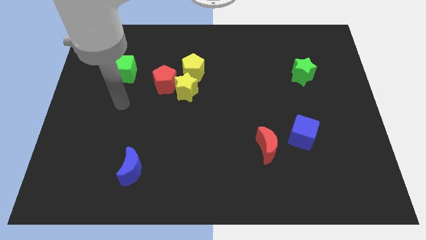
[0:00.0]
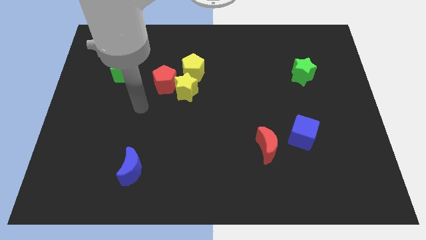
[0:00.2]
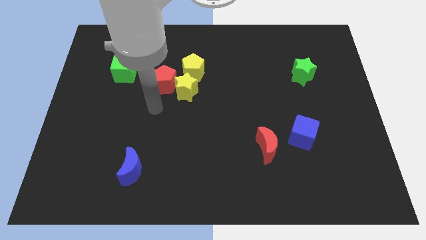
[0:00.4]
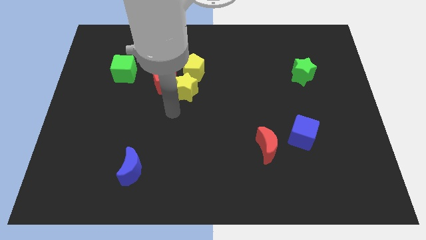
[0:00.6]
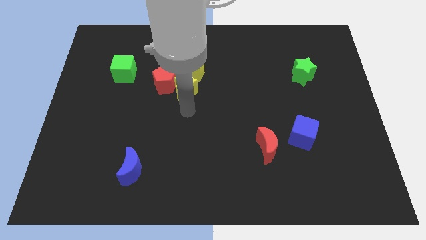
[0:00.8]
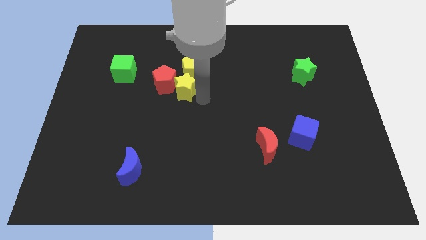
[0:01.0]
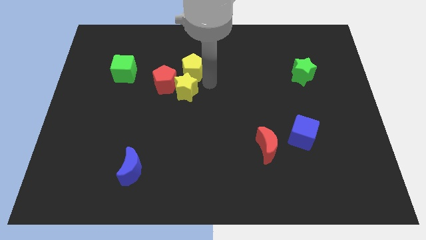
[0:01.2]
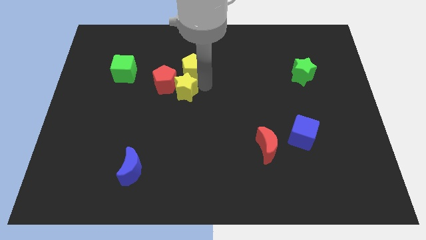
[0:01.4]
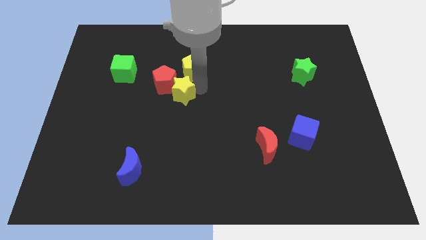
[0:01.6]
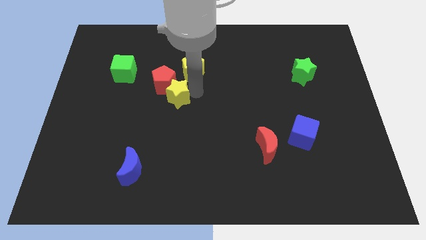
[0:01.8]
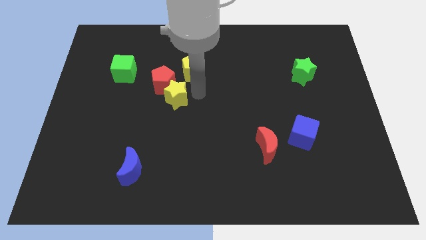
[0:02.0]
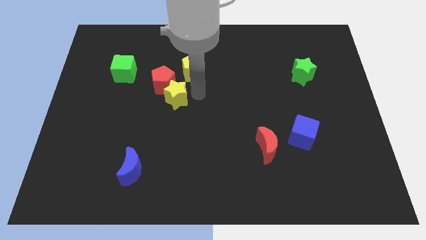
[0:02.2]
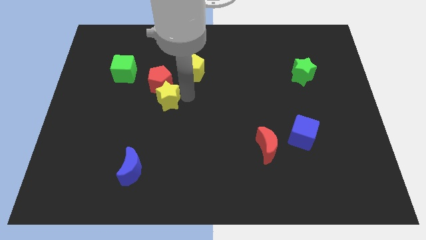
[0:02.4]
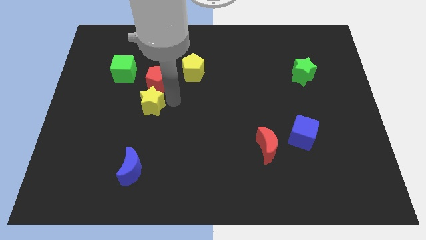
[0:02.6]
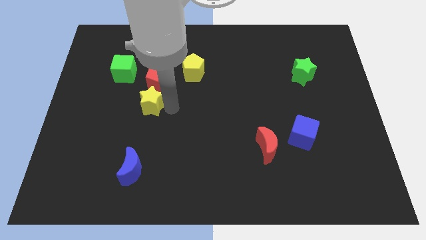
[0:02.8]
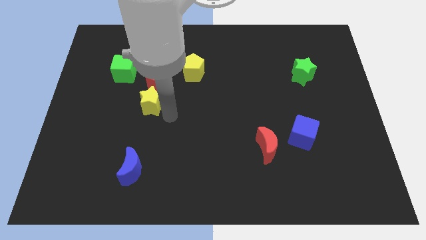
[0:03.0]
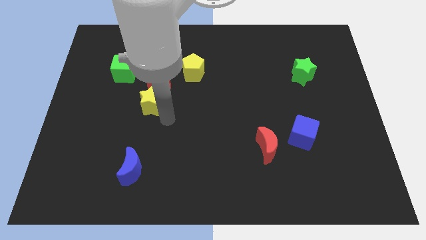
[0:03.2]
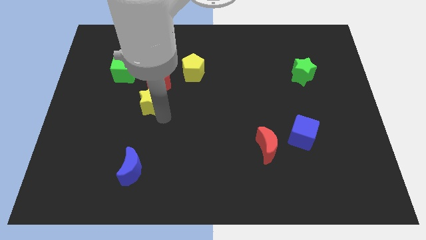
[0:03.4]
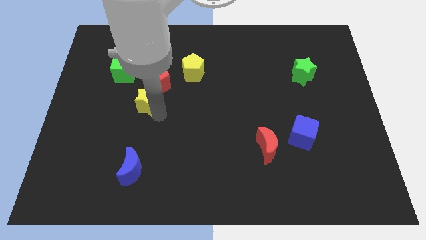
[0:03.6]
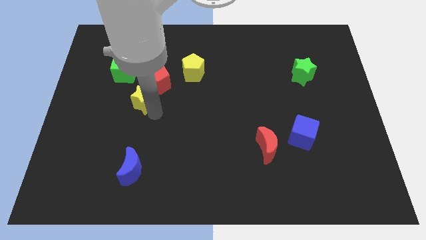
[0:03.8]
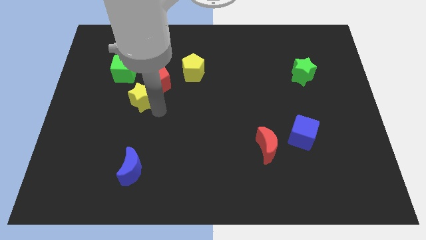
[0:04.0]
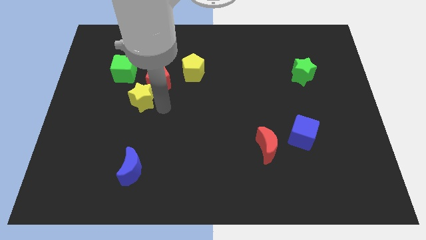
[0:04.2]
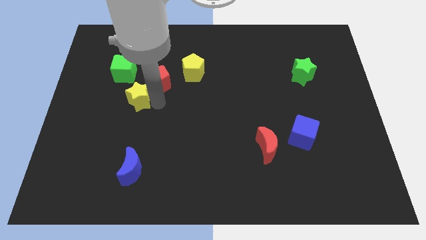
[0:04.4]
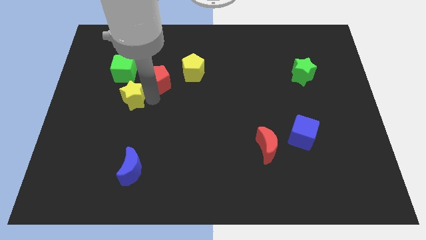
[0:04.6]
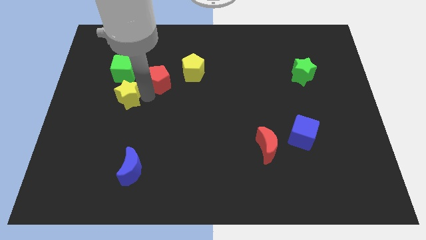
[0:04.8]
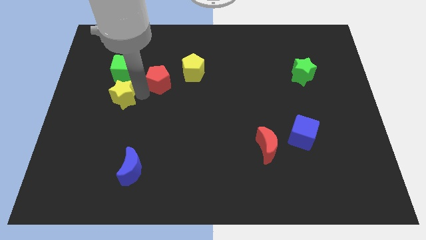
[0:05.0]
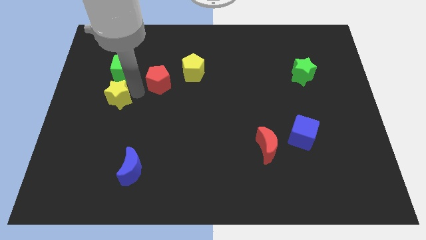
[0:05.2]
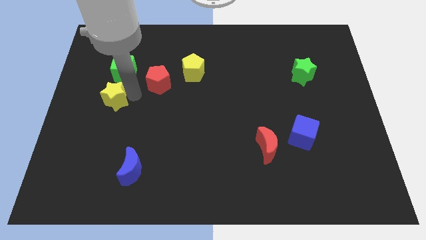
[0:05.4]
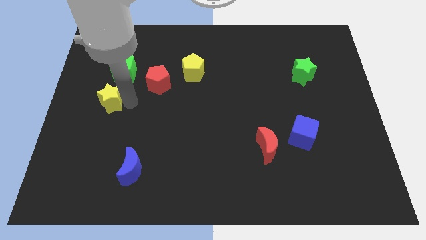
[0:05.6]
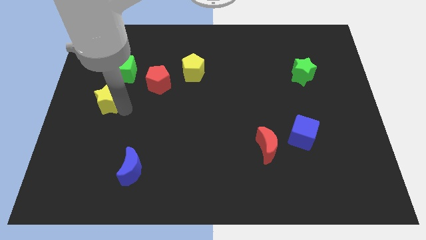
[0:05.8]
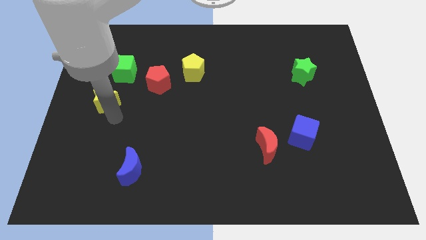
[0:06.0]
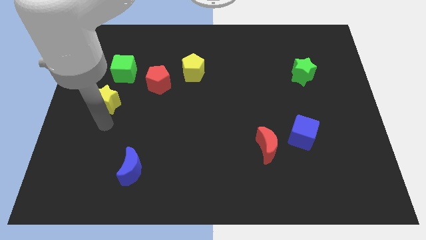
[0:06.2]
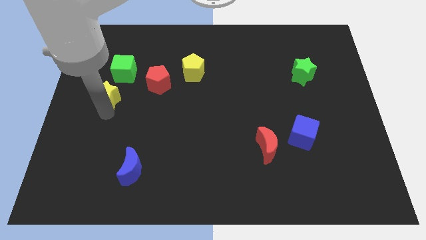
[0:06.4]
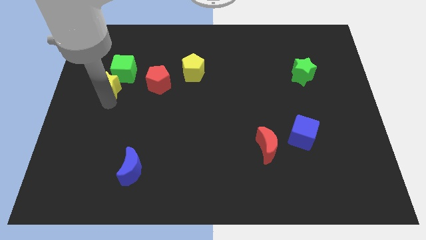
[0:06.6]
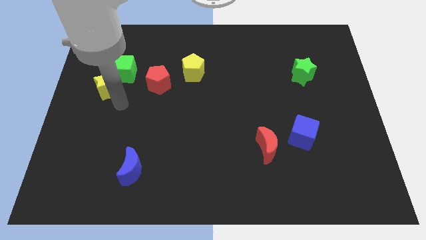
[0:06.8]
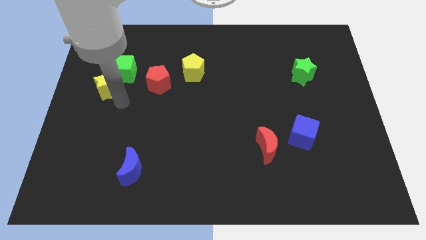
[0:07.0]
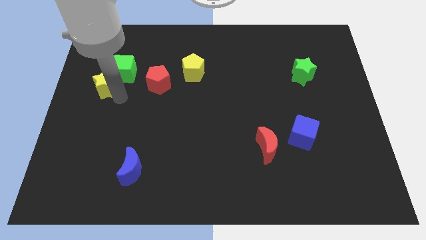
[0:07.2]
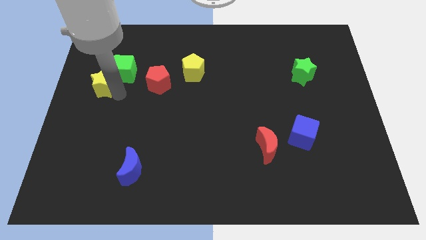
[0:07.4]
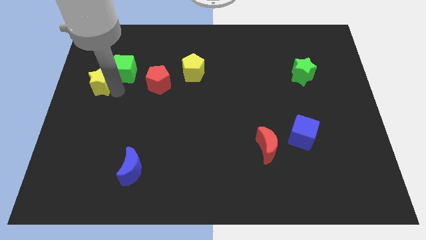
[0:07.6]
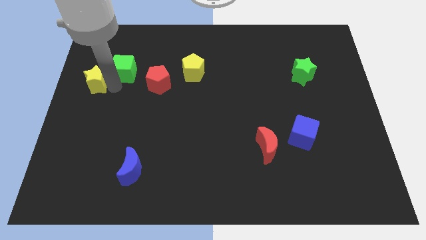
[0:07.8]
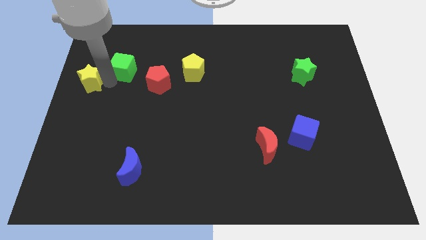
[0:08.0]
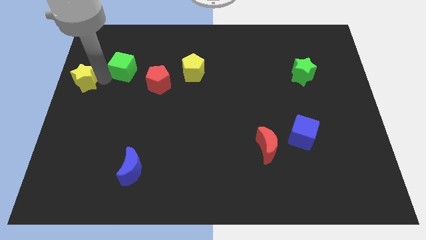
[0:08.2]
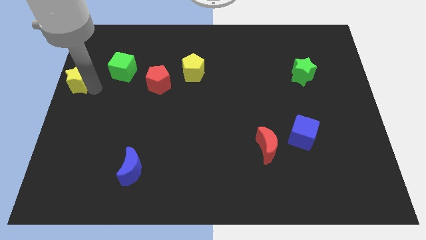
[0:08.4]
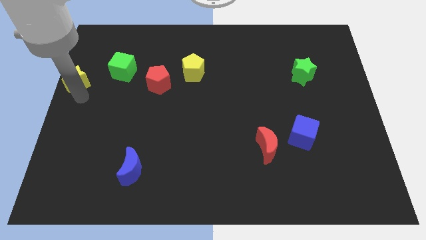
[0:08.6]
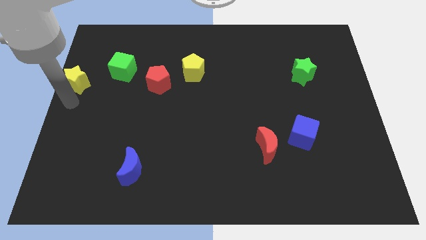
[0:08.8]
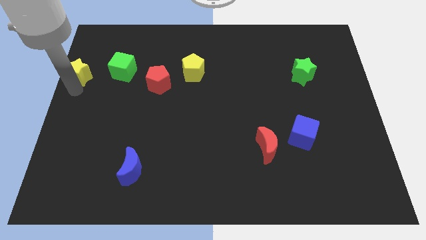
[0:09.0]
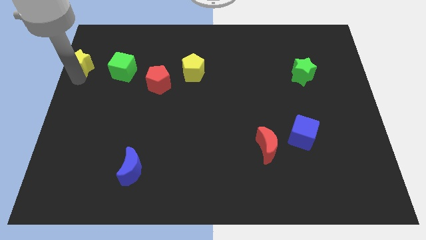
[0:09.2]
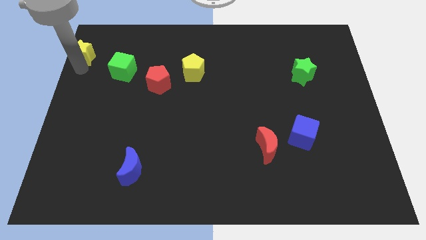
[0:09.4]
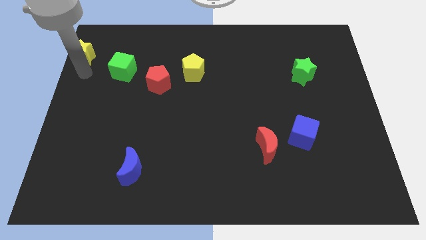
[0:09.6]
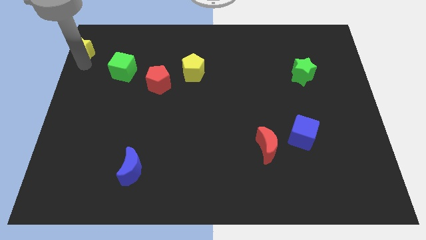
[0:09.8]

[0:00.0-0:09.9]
put the yellow star to the top left

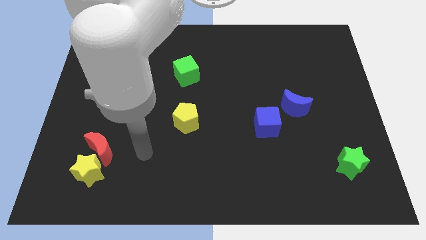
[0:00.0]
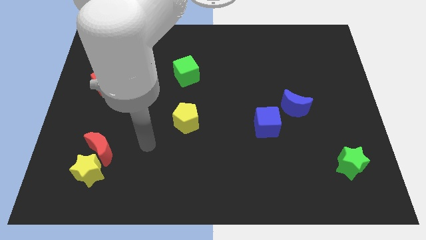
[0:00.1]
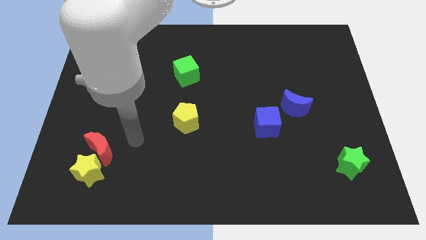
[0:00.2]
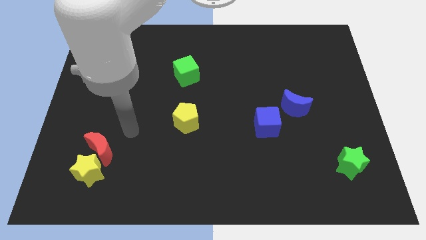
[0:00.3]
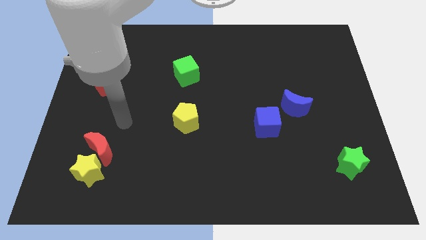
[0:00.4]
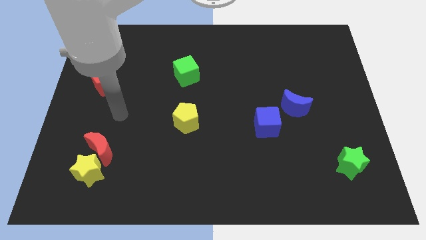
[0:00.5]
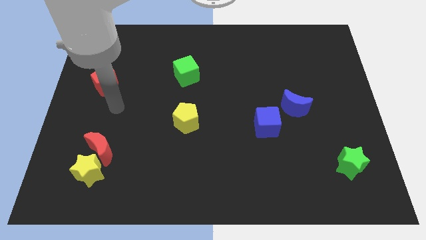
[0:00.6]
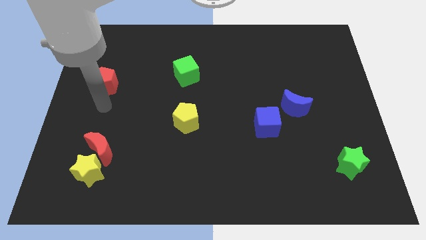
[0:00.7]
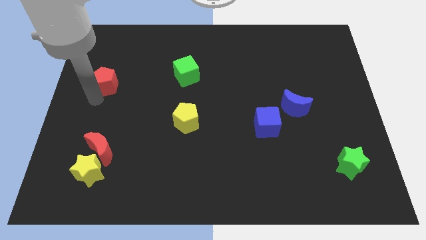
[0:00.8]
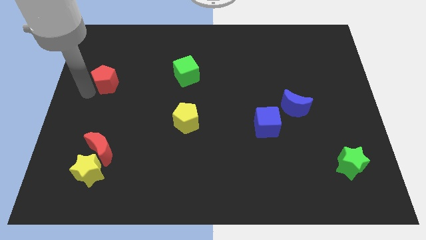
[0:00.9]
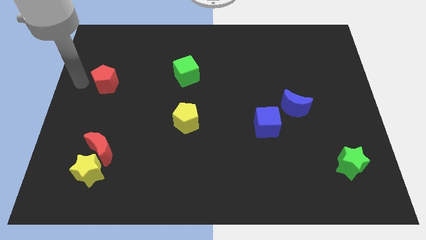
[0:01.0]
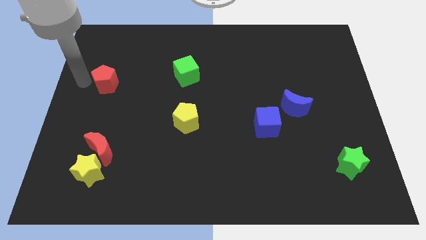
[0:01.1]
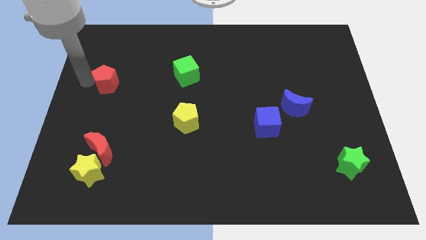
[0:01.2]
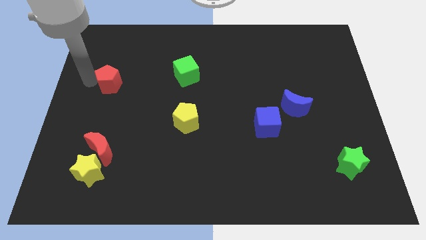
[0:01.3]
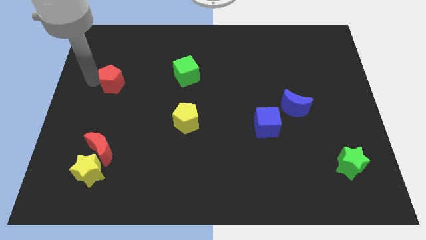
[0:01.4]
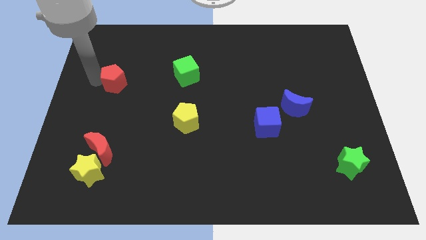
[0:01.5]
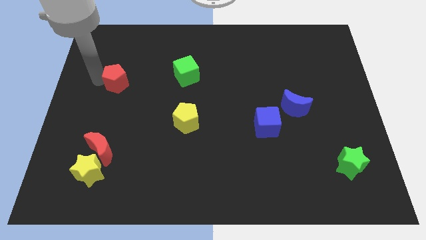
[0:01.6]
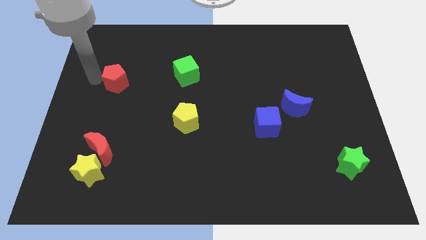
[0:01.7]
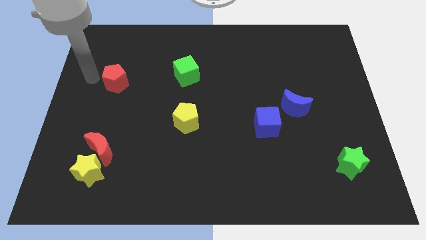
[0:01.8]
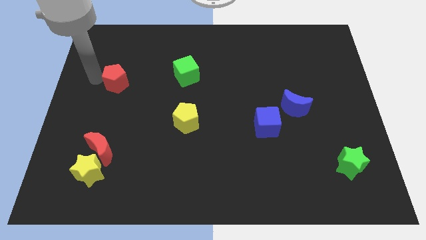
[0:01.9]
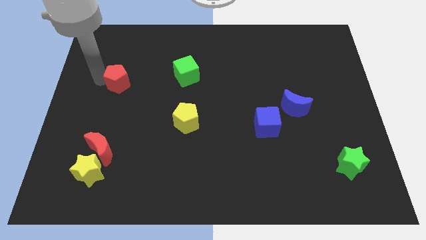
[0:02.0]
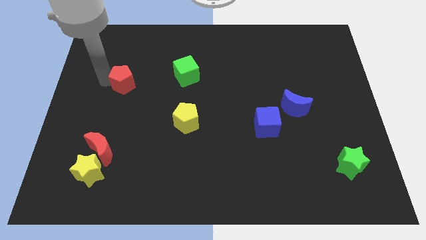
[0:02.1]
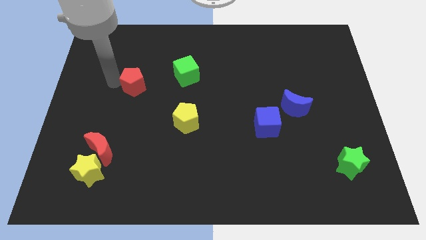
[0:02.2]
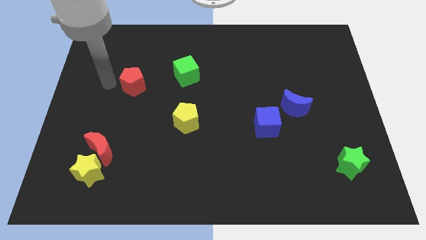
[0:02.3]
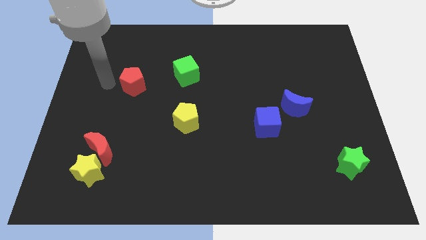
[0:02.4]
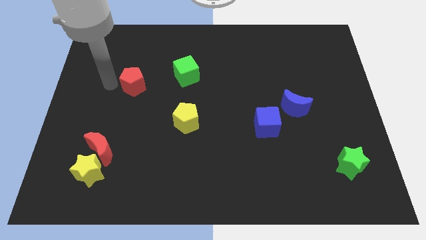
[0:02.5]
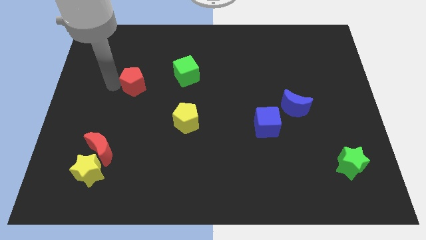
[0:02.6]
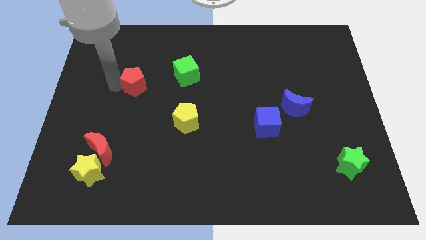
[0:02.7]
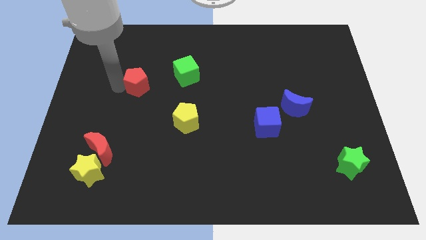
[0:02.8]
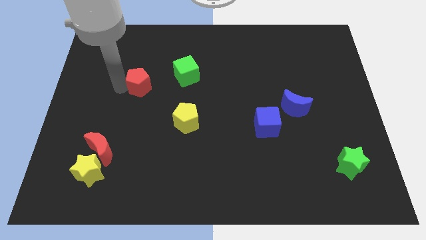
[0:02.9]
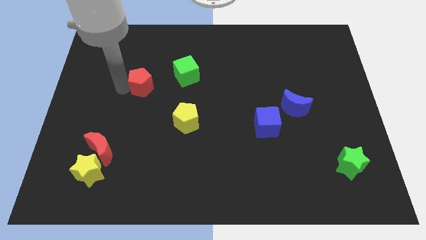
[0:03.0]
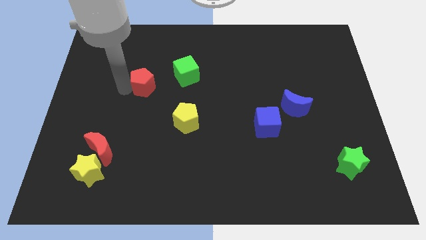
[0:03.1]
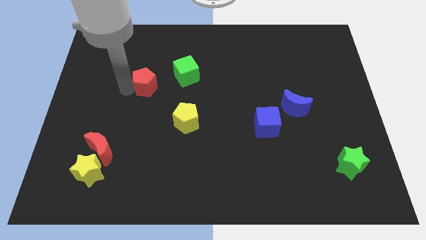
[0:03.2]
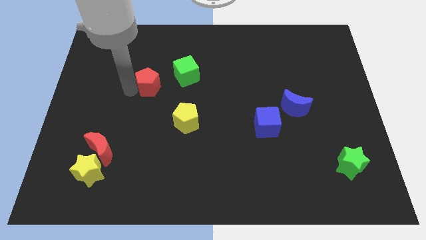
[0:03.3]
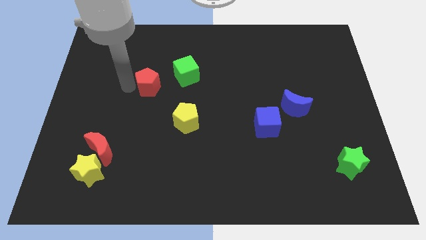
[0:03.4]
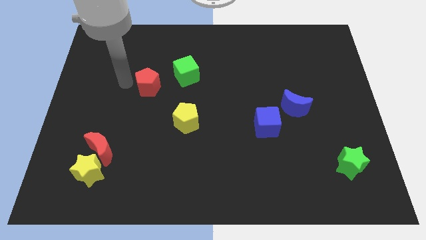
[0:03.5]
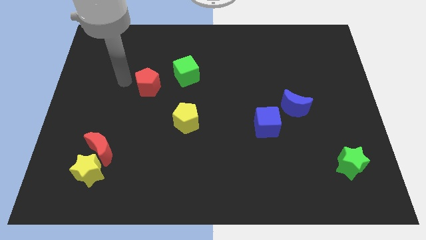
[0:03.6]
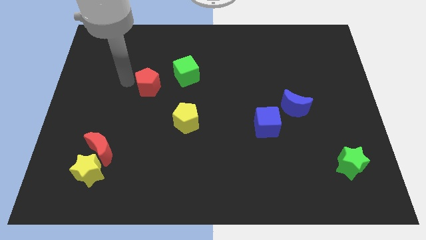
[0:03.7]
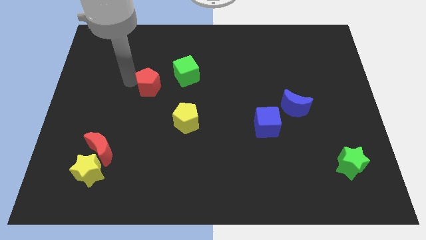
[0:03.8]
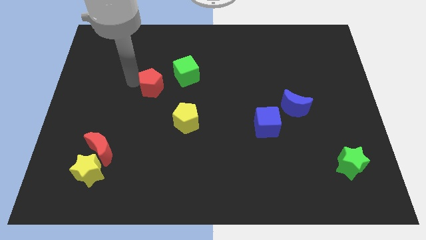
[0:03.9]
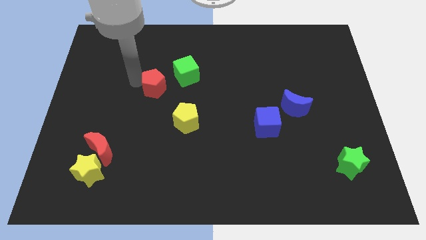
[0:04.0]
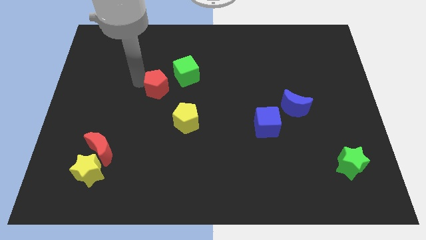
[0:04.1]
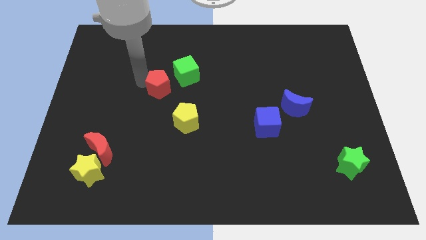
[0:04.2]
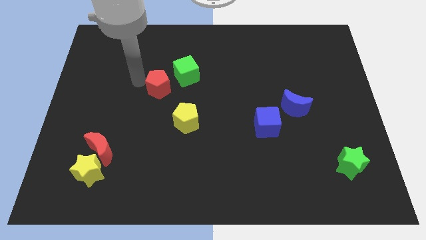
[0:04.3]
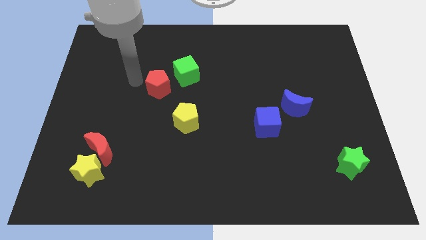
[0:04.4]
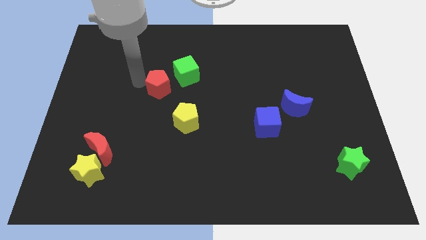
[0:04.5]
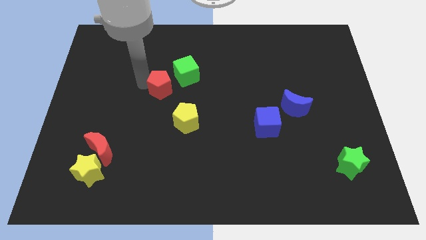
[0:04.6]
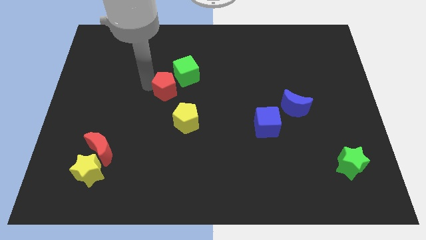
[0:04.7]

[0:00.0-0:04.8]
push the red pentagon to the middle
